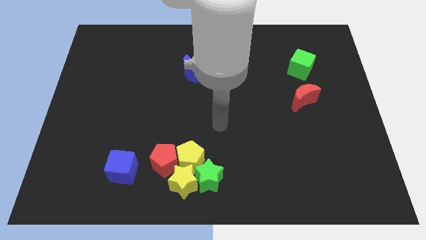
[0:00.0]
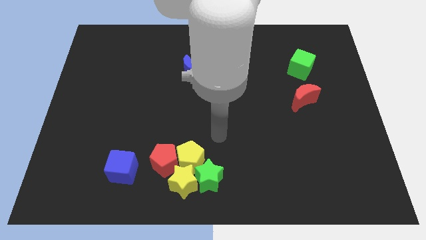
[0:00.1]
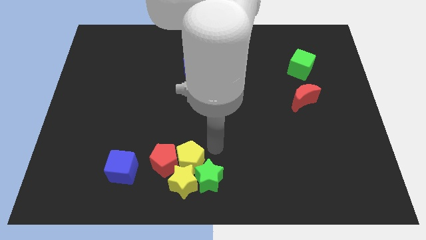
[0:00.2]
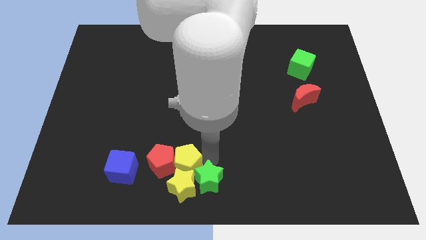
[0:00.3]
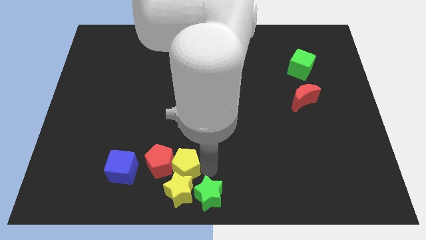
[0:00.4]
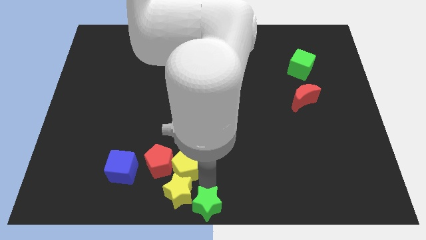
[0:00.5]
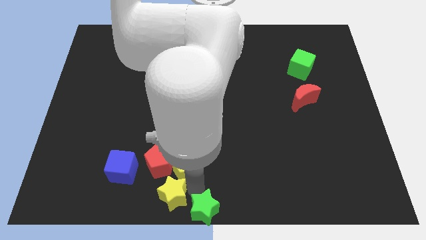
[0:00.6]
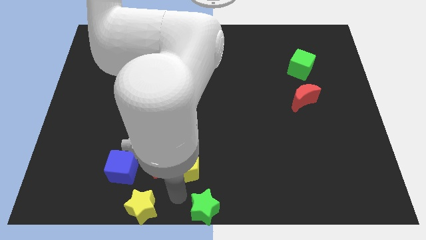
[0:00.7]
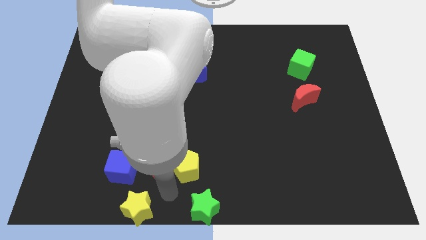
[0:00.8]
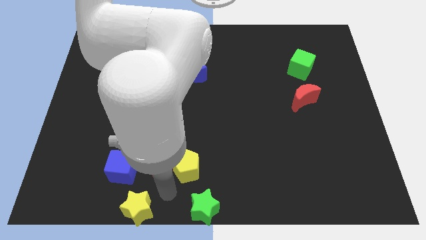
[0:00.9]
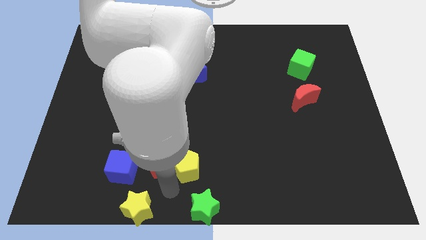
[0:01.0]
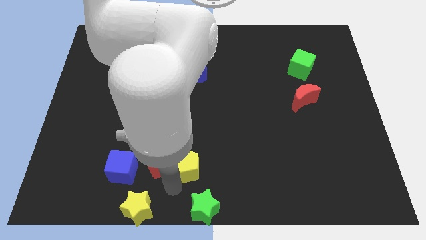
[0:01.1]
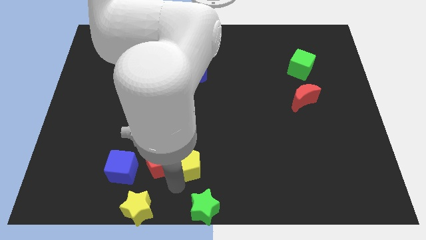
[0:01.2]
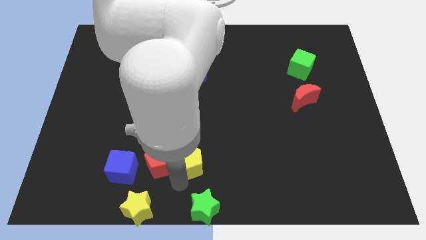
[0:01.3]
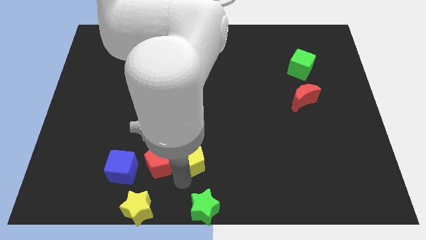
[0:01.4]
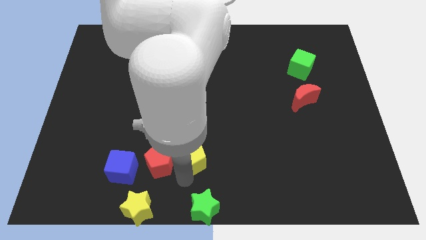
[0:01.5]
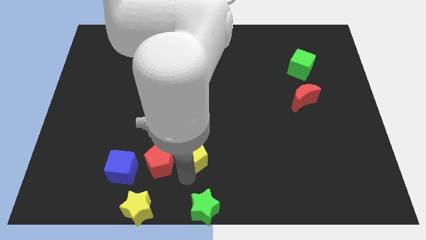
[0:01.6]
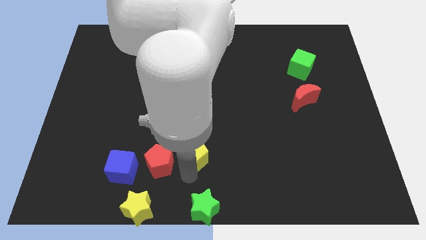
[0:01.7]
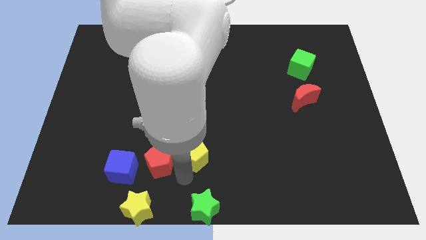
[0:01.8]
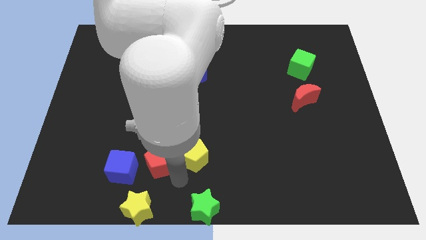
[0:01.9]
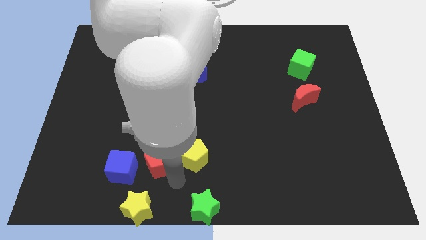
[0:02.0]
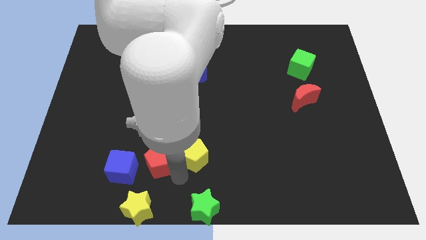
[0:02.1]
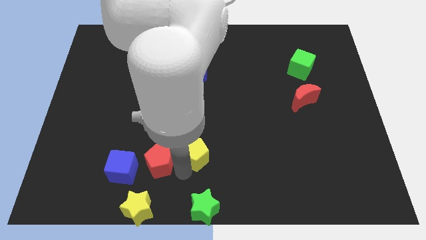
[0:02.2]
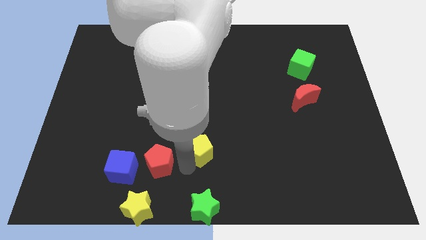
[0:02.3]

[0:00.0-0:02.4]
pull the yellow pentagon apart from the yellow star, red pentagon, and green star

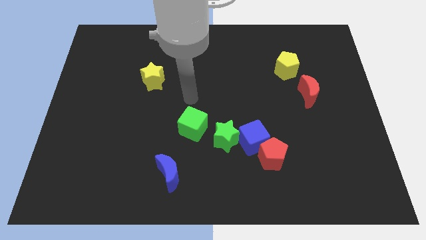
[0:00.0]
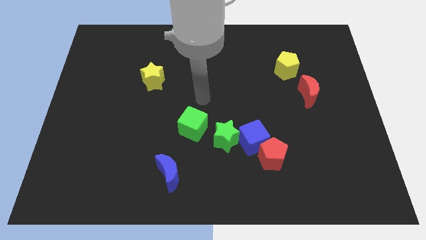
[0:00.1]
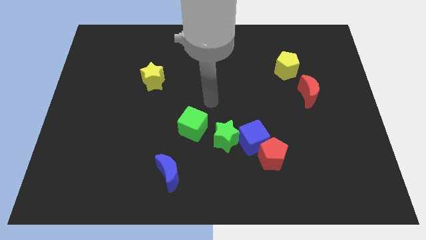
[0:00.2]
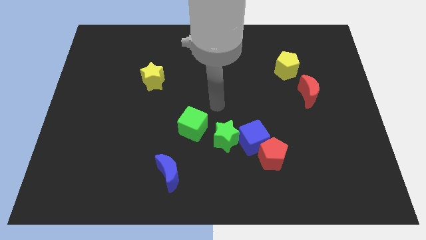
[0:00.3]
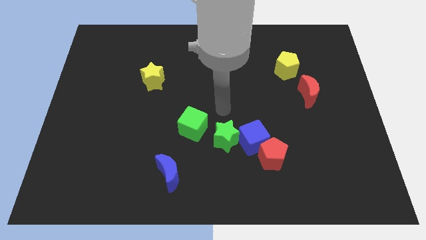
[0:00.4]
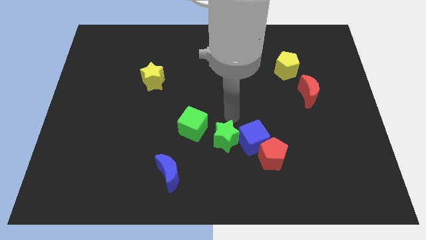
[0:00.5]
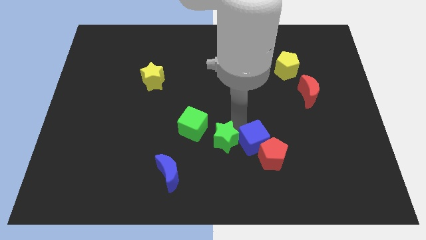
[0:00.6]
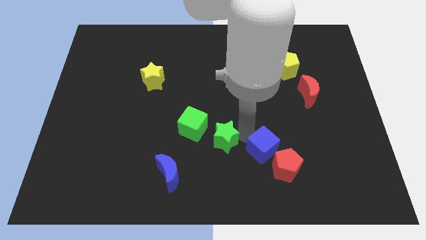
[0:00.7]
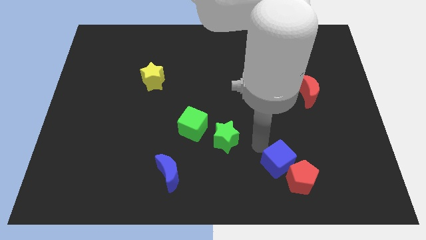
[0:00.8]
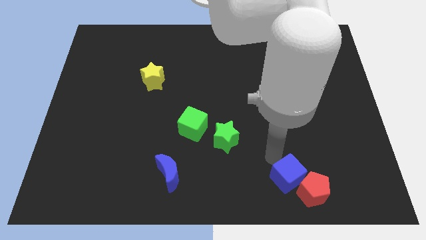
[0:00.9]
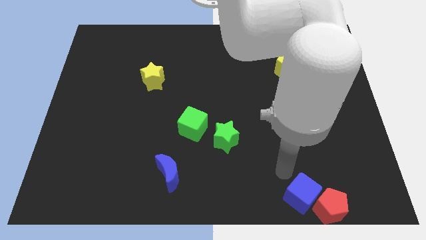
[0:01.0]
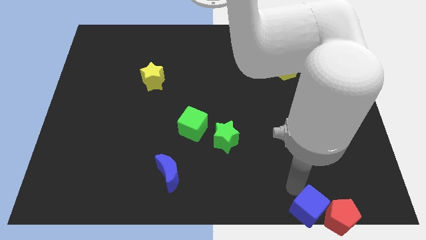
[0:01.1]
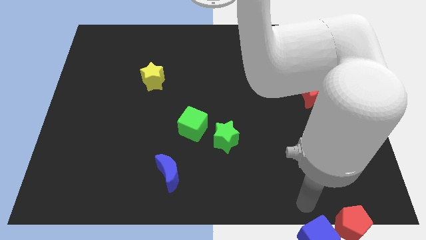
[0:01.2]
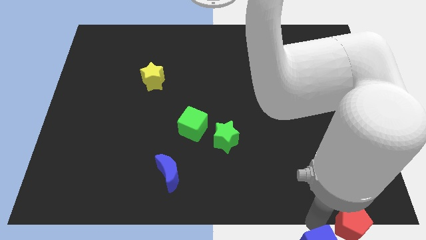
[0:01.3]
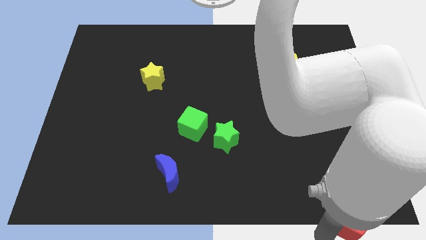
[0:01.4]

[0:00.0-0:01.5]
pull the red pentagon apart from the blue cube

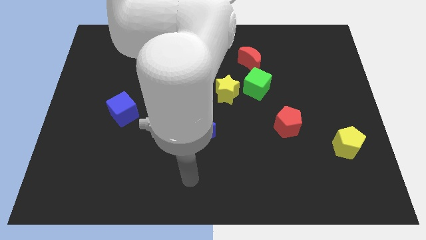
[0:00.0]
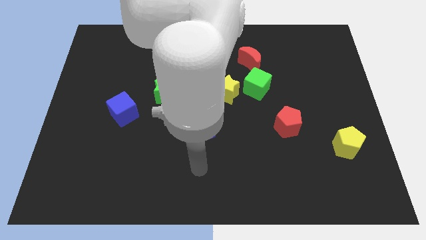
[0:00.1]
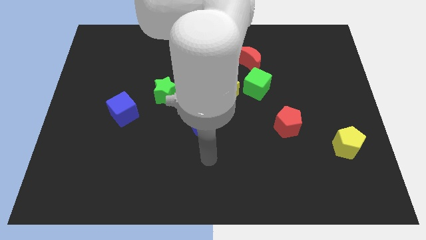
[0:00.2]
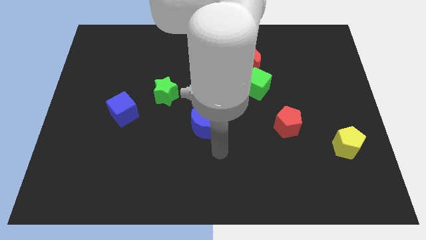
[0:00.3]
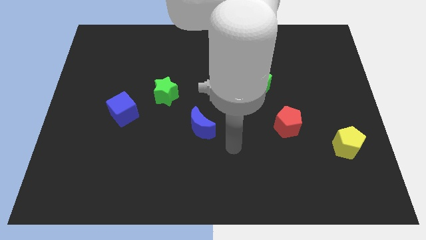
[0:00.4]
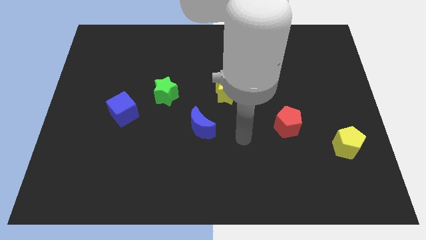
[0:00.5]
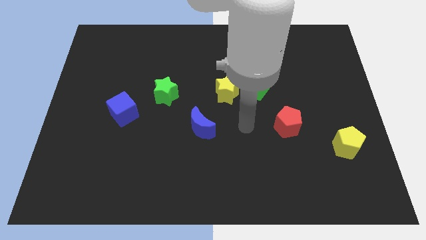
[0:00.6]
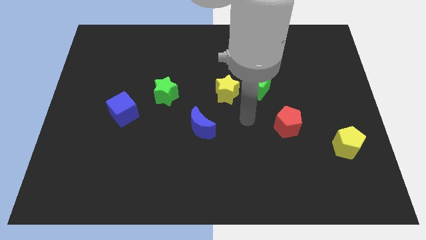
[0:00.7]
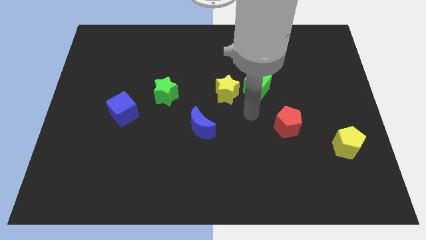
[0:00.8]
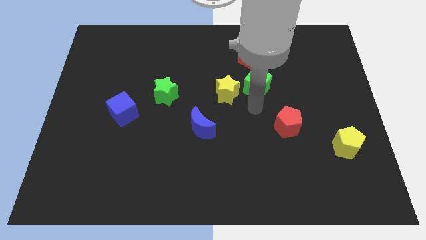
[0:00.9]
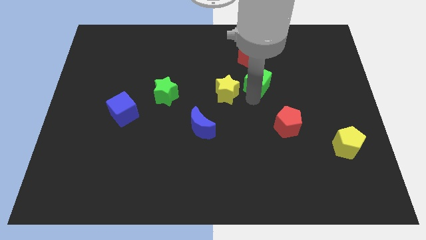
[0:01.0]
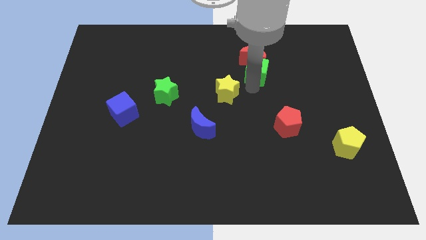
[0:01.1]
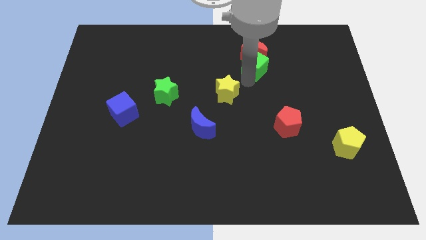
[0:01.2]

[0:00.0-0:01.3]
separate the yellow star from the green cube

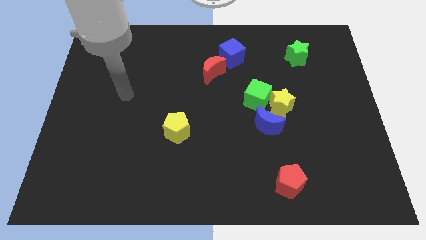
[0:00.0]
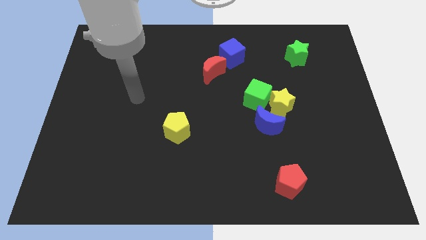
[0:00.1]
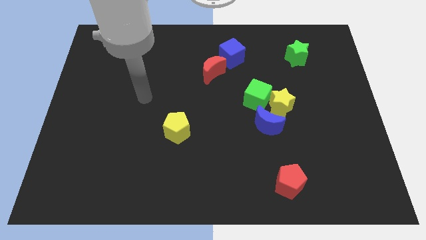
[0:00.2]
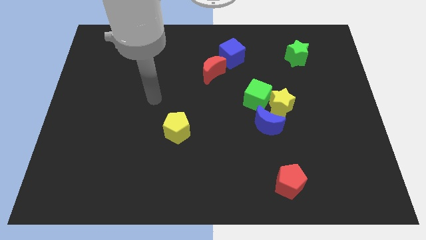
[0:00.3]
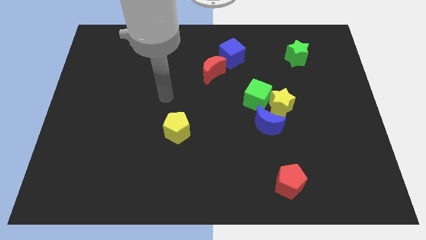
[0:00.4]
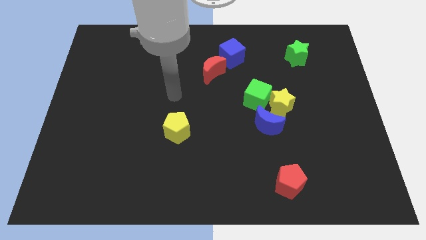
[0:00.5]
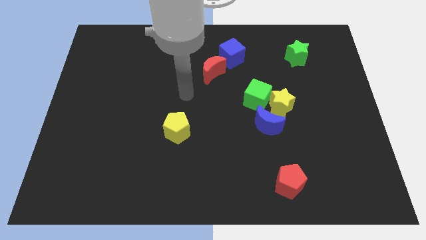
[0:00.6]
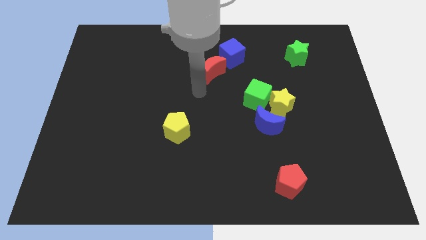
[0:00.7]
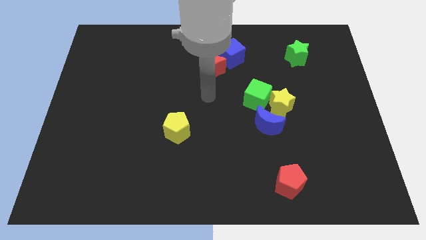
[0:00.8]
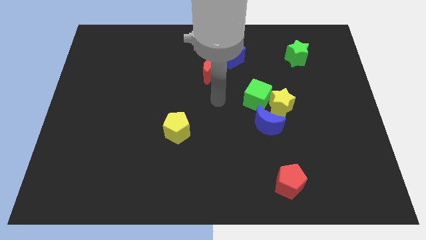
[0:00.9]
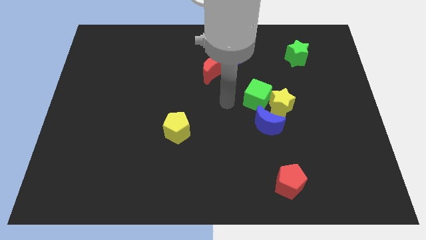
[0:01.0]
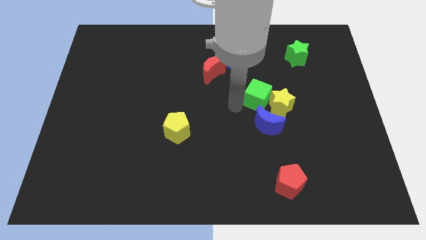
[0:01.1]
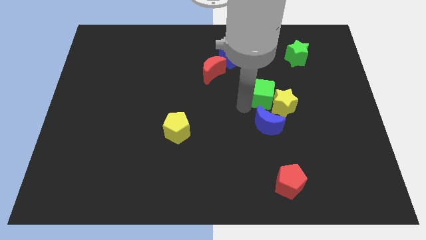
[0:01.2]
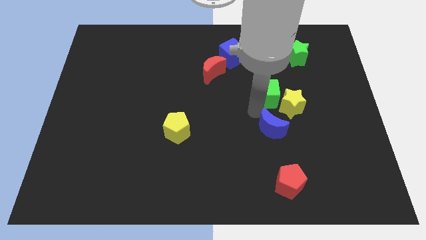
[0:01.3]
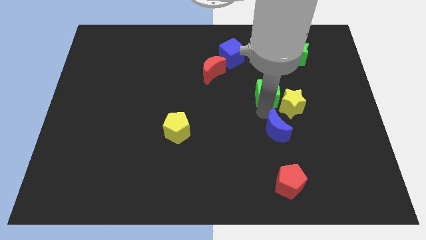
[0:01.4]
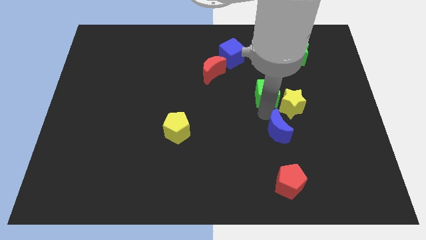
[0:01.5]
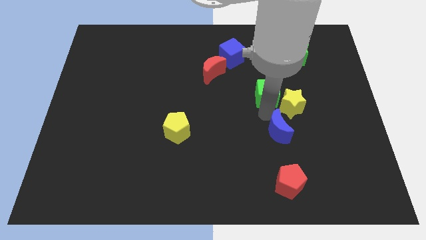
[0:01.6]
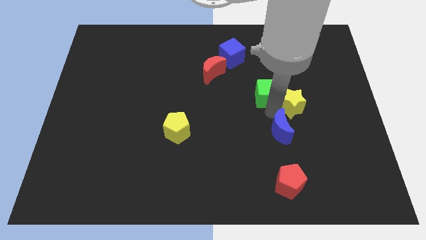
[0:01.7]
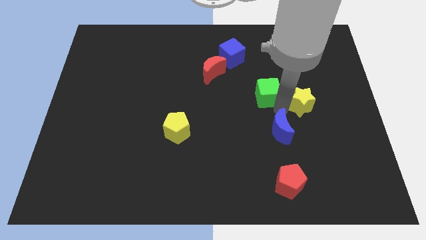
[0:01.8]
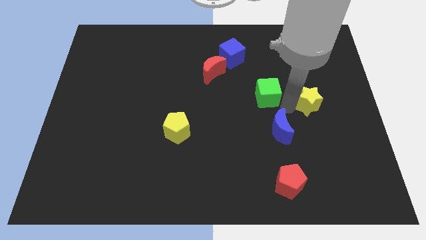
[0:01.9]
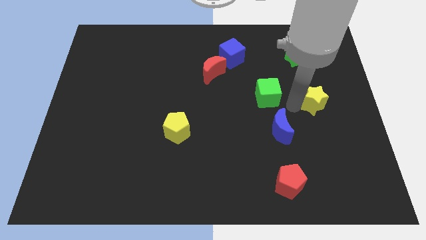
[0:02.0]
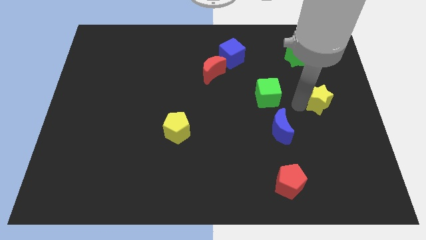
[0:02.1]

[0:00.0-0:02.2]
separate the yellow star from the green cube and blue moon

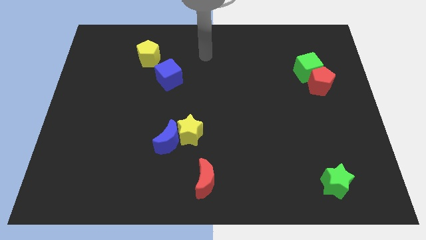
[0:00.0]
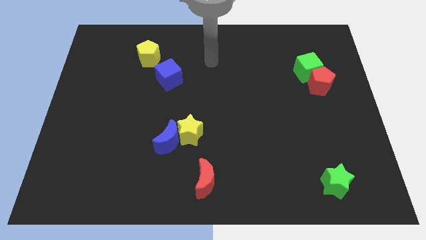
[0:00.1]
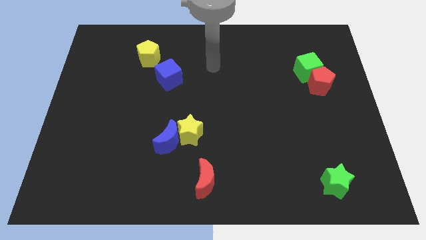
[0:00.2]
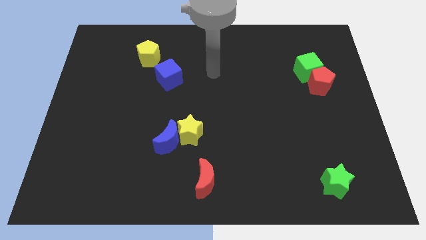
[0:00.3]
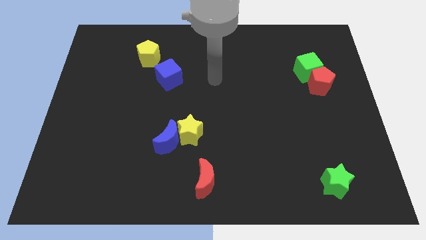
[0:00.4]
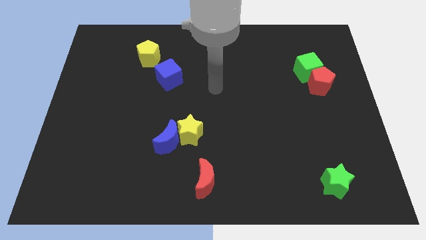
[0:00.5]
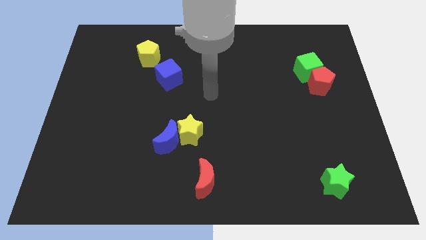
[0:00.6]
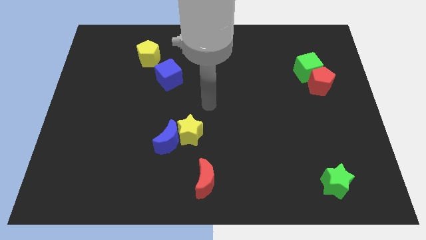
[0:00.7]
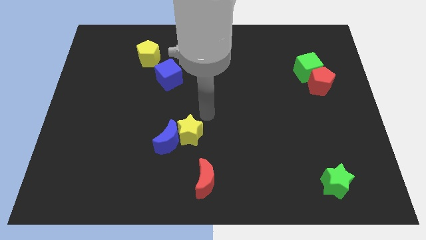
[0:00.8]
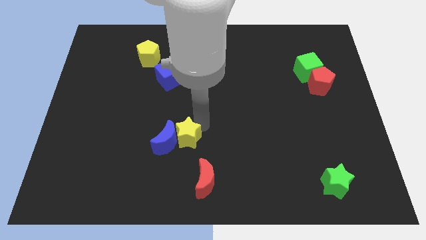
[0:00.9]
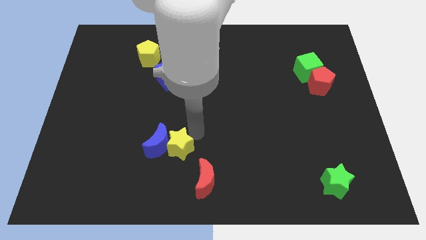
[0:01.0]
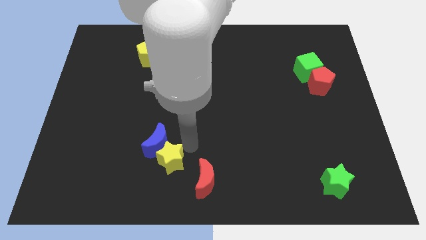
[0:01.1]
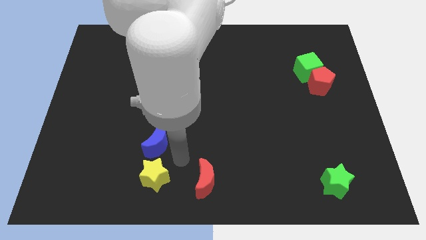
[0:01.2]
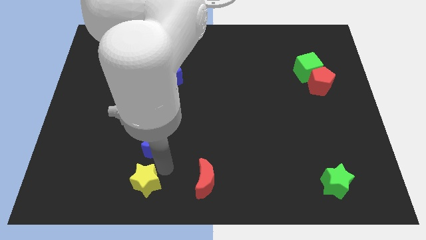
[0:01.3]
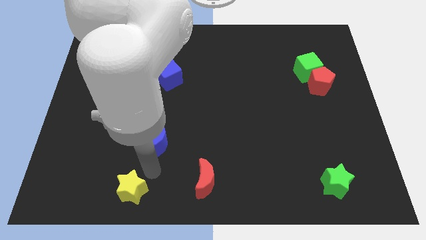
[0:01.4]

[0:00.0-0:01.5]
pull the blue moon apart from the yellow star

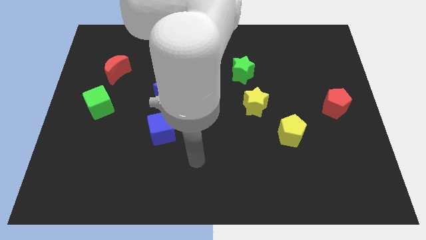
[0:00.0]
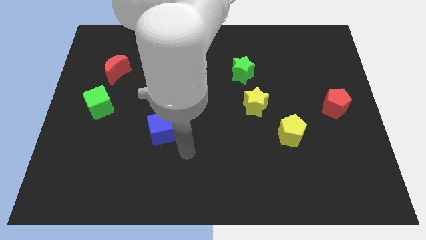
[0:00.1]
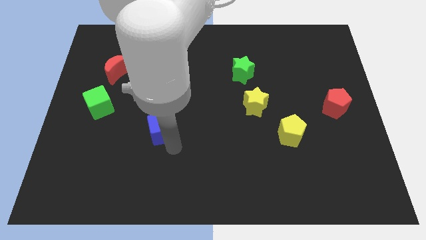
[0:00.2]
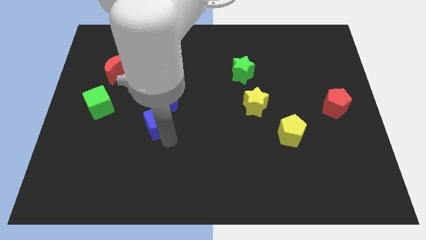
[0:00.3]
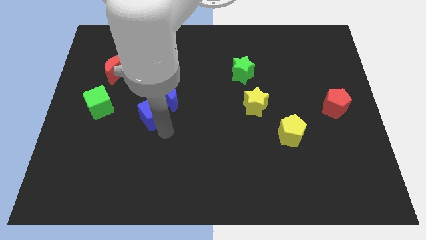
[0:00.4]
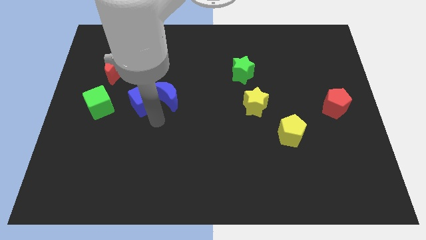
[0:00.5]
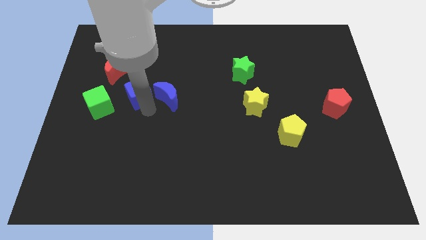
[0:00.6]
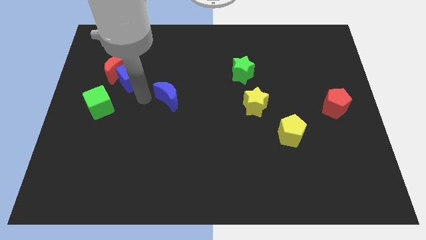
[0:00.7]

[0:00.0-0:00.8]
move the blue moon away from the blue cube
